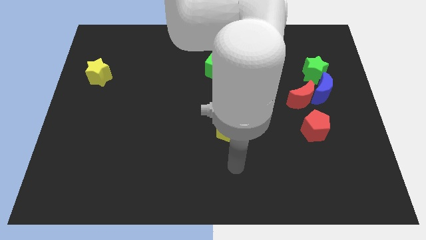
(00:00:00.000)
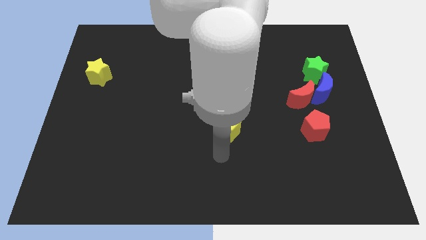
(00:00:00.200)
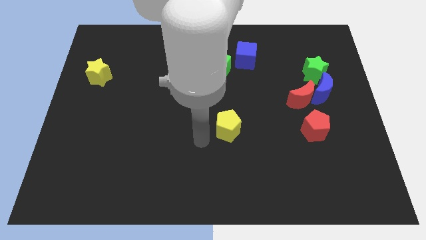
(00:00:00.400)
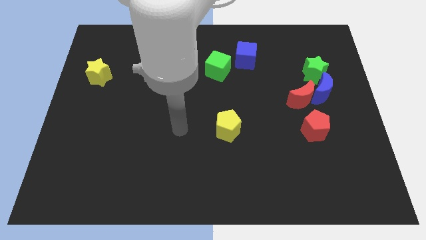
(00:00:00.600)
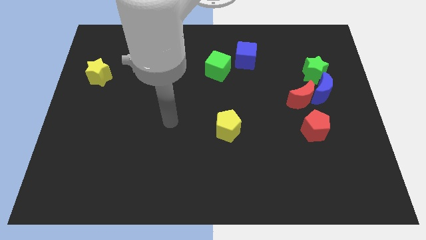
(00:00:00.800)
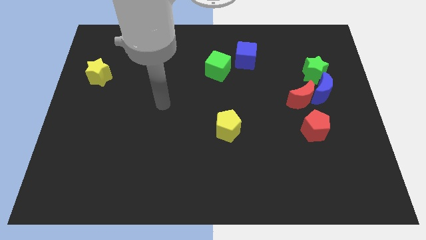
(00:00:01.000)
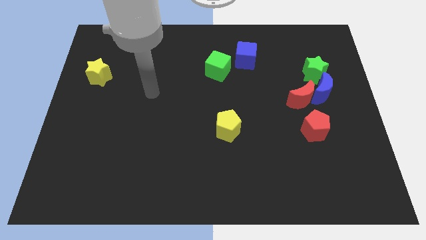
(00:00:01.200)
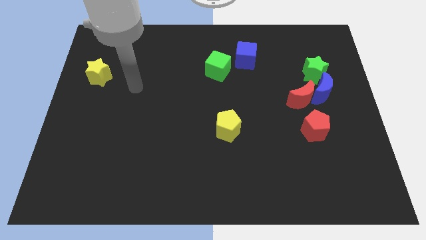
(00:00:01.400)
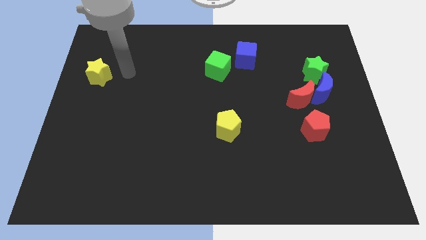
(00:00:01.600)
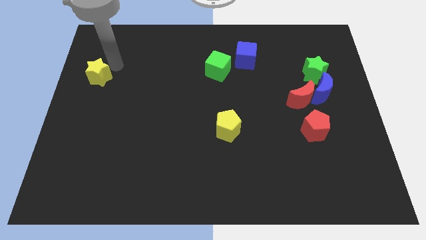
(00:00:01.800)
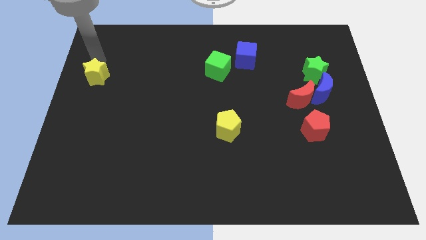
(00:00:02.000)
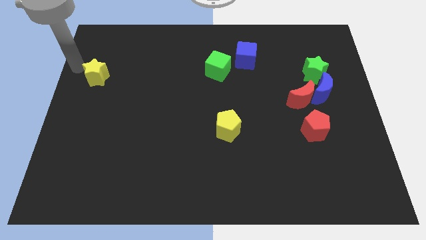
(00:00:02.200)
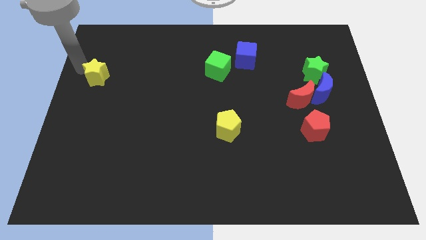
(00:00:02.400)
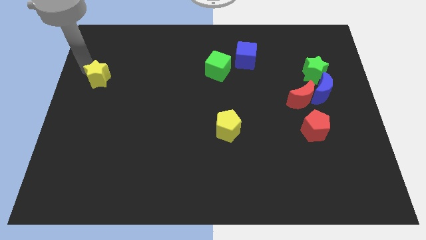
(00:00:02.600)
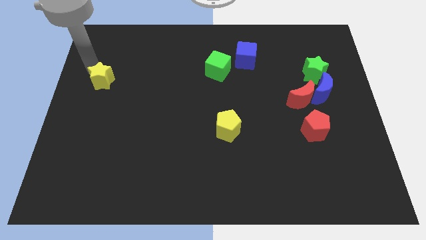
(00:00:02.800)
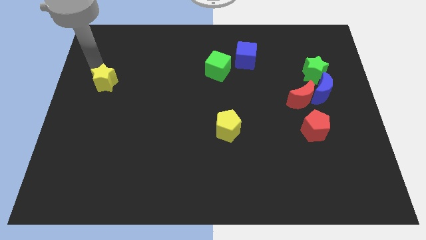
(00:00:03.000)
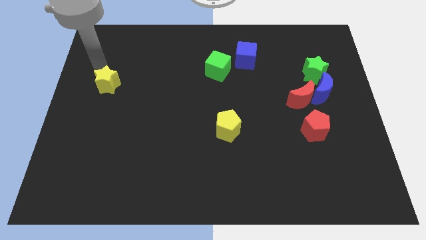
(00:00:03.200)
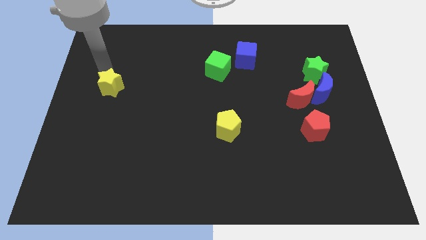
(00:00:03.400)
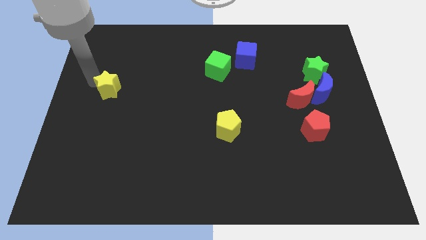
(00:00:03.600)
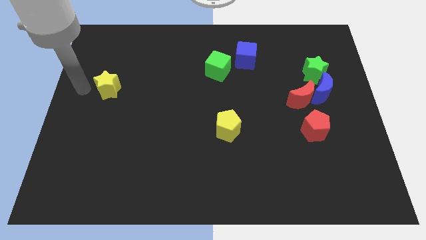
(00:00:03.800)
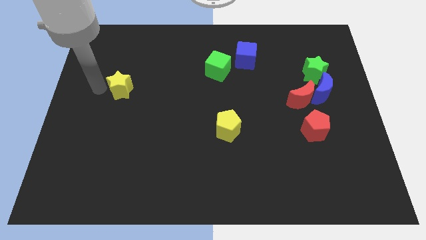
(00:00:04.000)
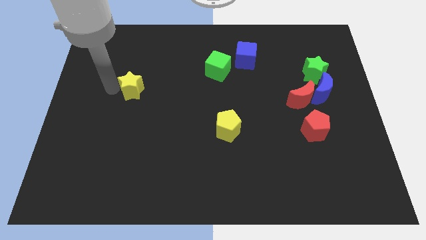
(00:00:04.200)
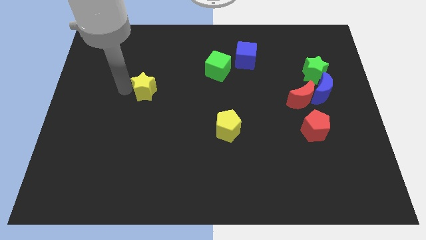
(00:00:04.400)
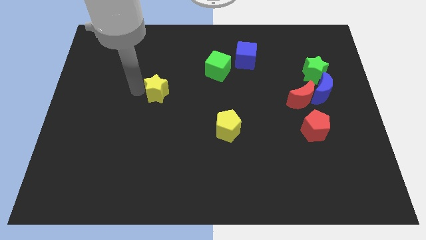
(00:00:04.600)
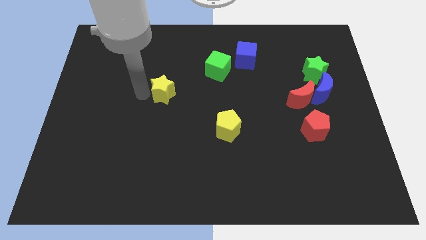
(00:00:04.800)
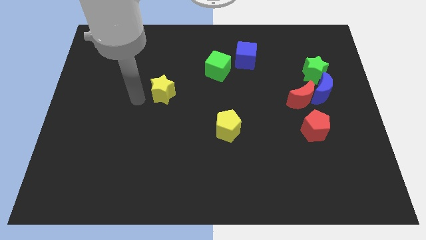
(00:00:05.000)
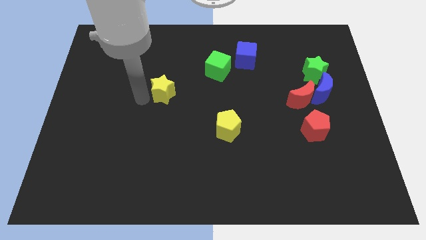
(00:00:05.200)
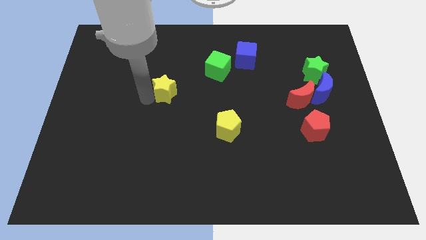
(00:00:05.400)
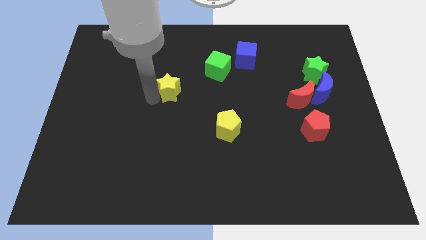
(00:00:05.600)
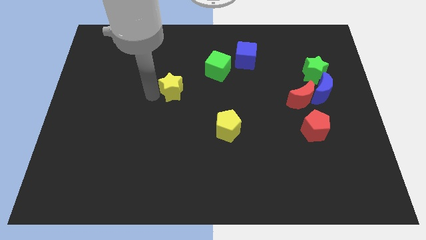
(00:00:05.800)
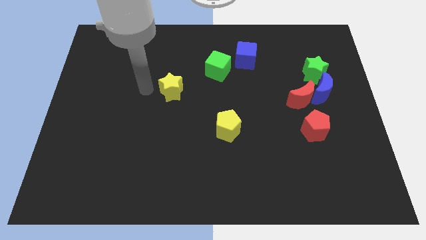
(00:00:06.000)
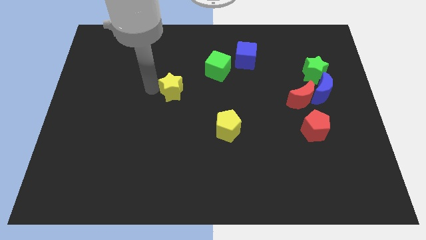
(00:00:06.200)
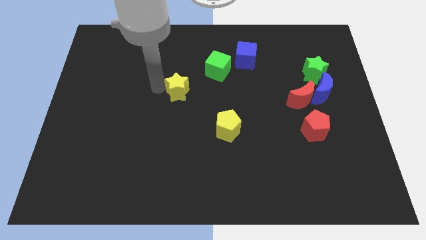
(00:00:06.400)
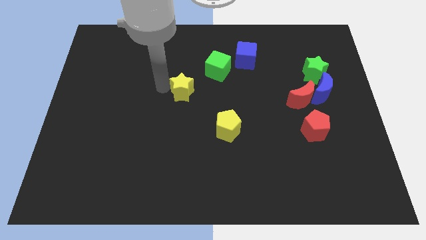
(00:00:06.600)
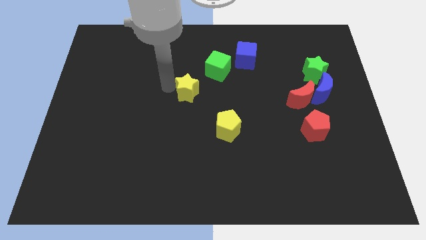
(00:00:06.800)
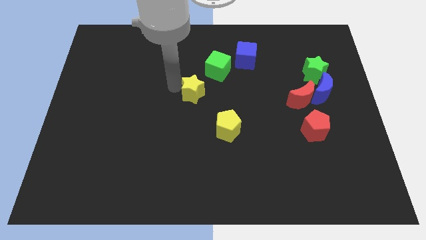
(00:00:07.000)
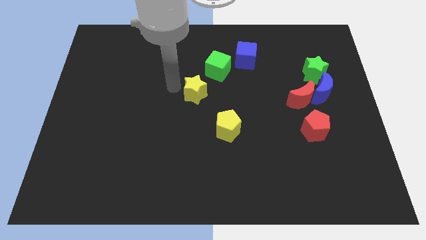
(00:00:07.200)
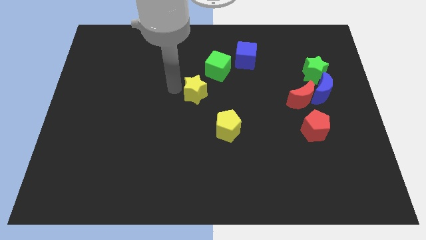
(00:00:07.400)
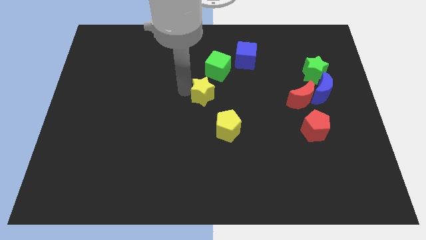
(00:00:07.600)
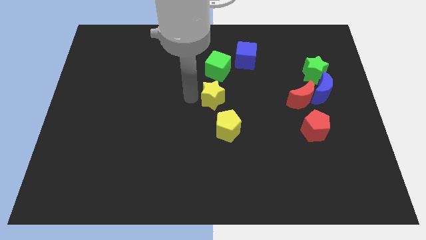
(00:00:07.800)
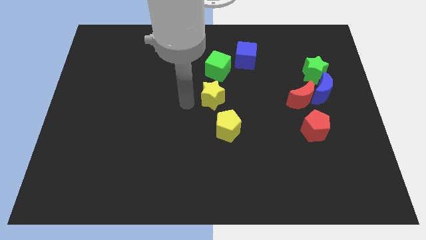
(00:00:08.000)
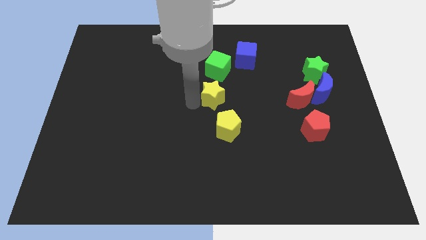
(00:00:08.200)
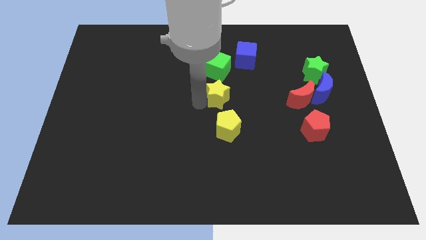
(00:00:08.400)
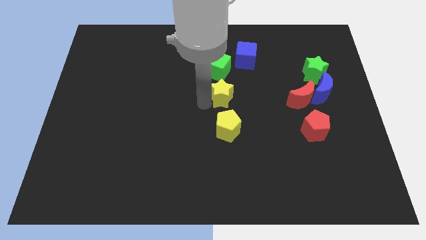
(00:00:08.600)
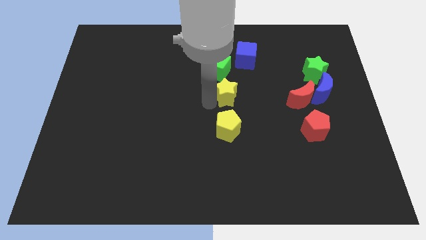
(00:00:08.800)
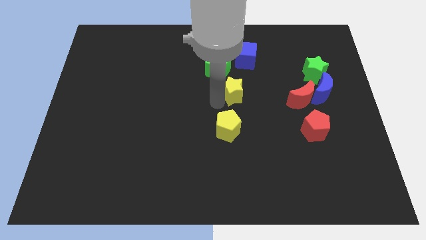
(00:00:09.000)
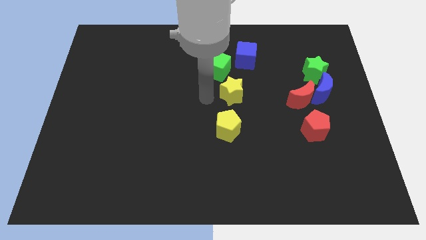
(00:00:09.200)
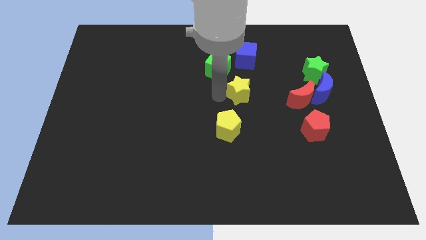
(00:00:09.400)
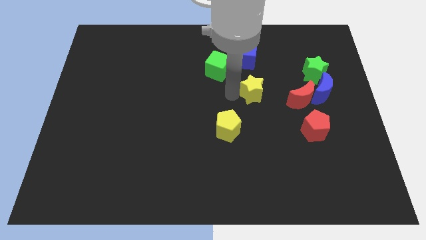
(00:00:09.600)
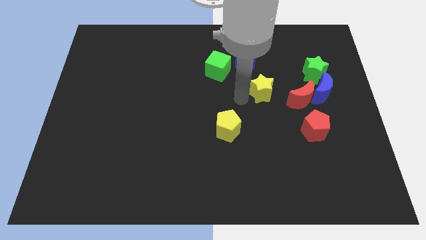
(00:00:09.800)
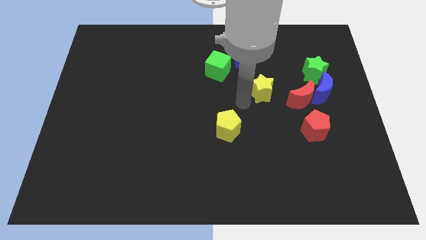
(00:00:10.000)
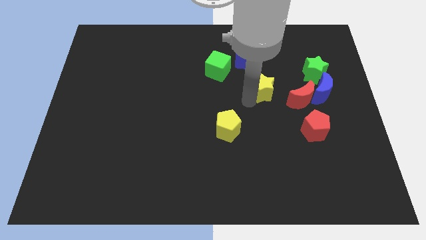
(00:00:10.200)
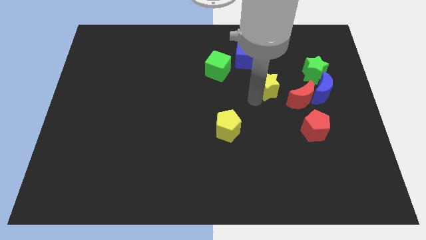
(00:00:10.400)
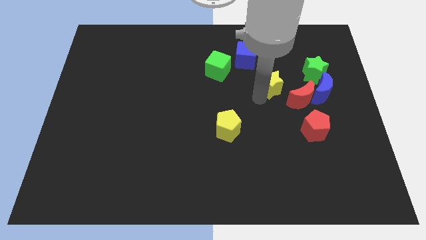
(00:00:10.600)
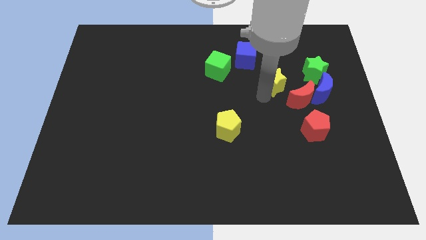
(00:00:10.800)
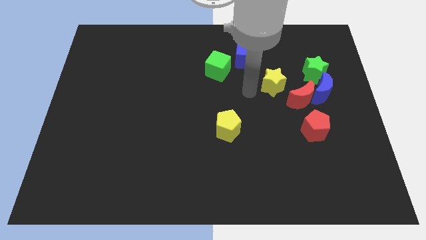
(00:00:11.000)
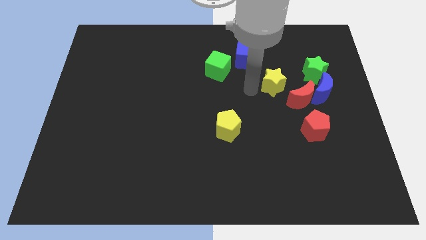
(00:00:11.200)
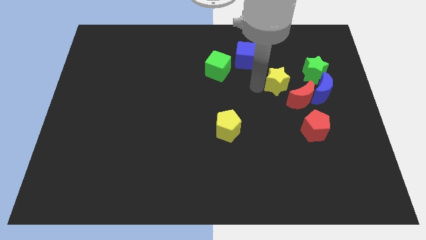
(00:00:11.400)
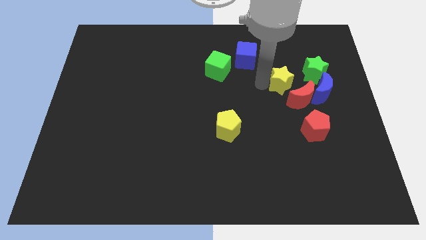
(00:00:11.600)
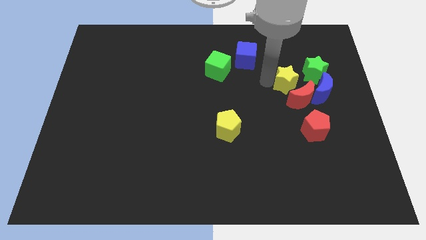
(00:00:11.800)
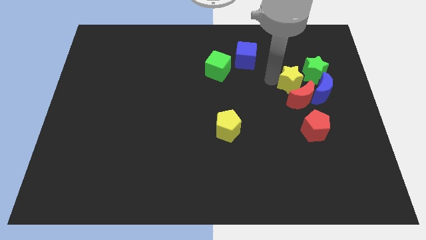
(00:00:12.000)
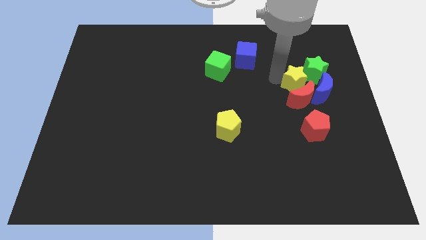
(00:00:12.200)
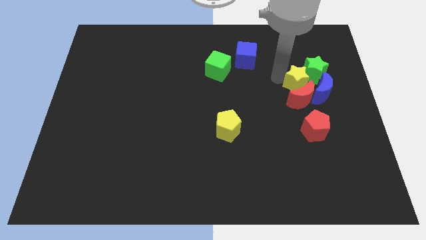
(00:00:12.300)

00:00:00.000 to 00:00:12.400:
put the yellow star to the green star

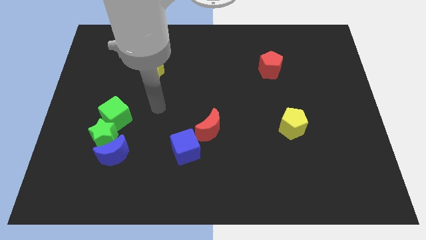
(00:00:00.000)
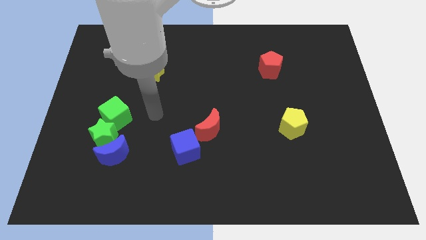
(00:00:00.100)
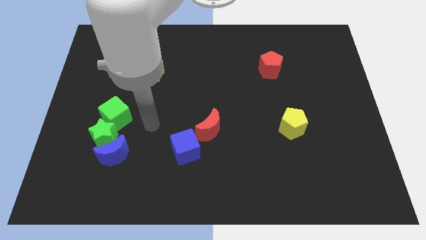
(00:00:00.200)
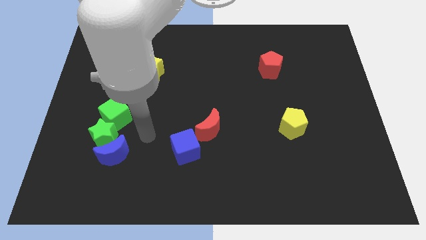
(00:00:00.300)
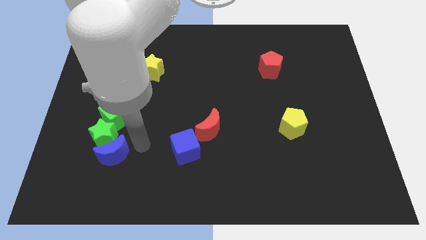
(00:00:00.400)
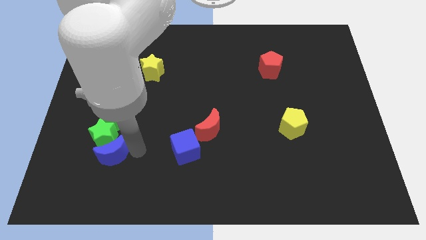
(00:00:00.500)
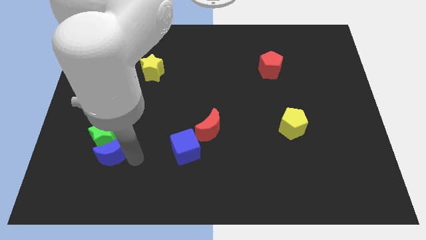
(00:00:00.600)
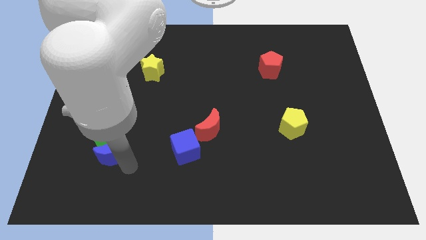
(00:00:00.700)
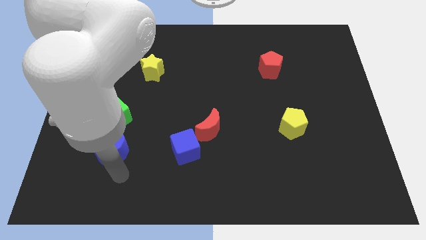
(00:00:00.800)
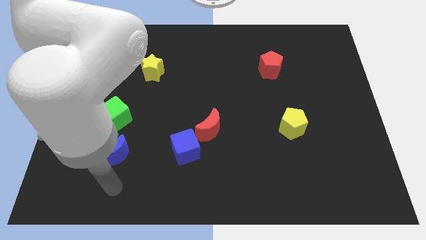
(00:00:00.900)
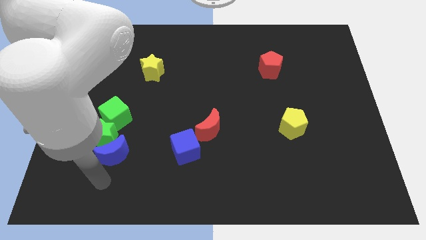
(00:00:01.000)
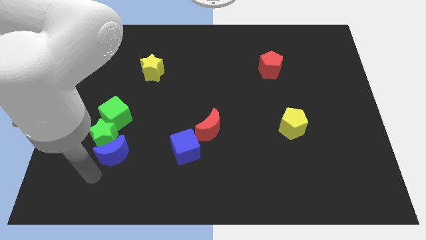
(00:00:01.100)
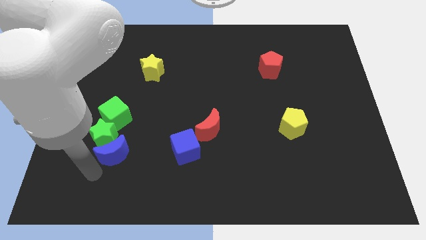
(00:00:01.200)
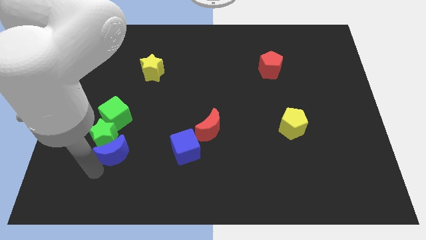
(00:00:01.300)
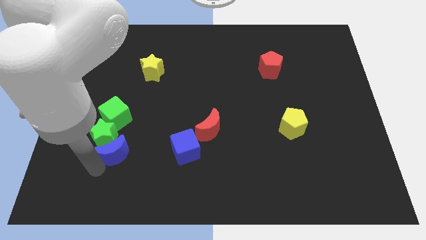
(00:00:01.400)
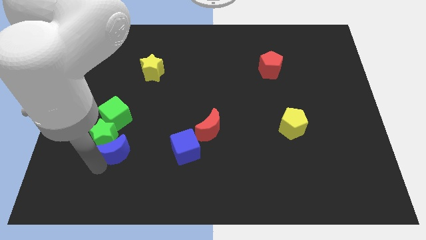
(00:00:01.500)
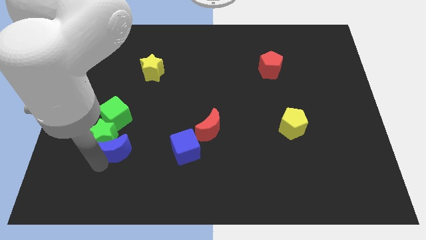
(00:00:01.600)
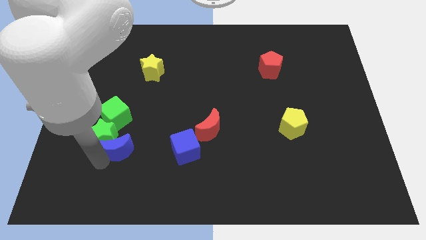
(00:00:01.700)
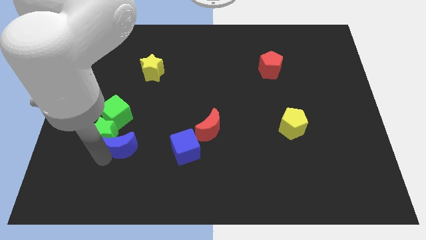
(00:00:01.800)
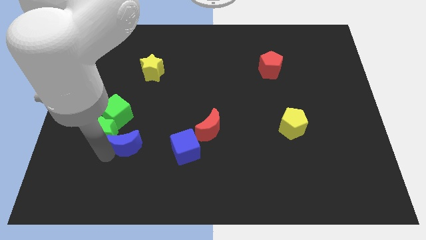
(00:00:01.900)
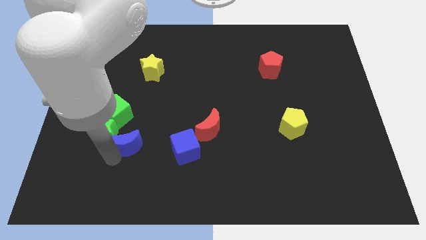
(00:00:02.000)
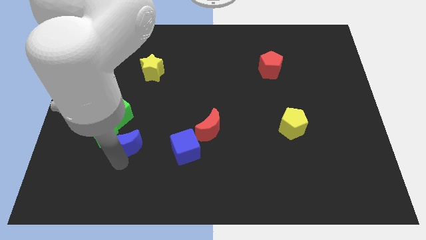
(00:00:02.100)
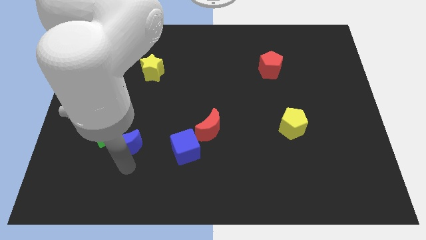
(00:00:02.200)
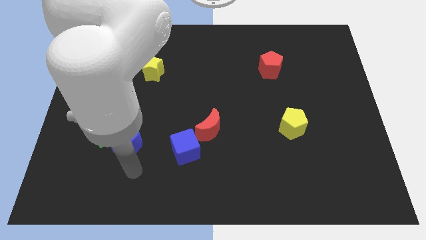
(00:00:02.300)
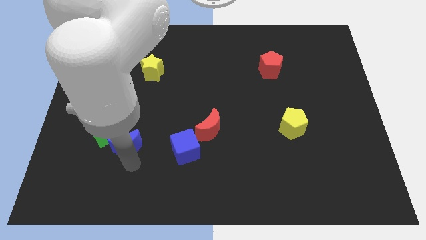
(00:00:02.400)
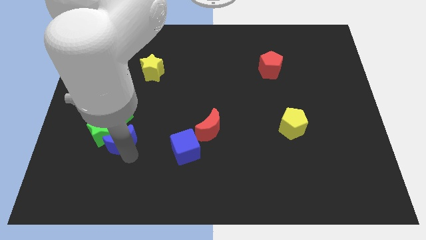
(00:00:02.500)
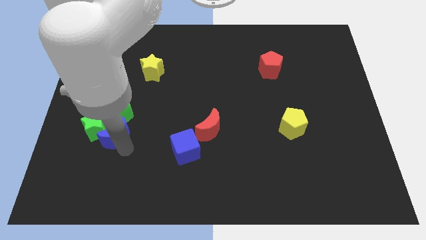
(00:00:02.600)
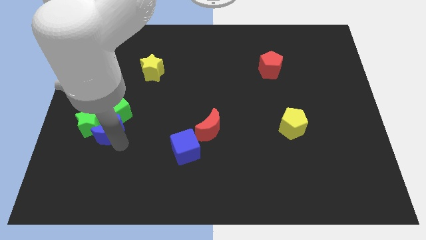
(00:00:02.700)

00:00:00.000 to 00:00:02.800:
push the blue moon close to the green cube
